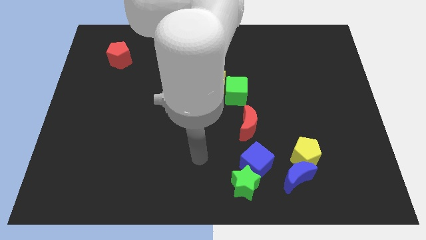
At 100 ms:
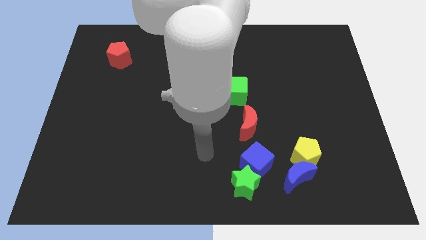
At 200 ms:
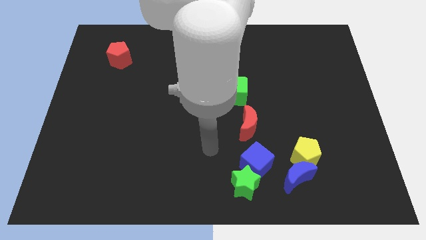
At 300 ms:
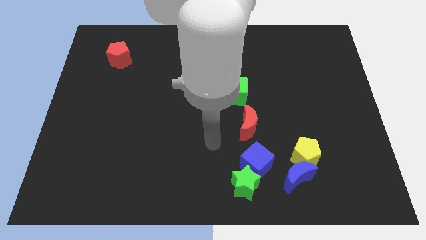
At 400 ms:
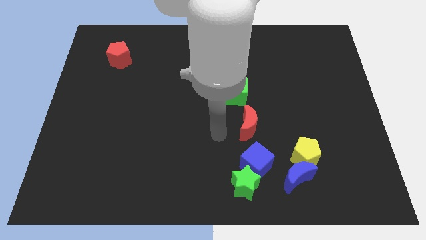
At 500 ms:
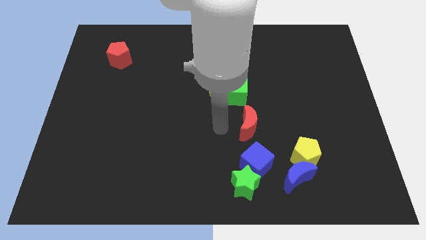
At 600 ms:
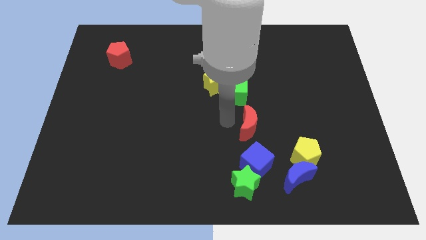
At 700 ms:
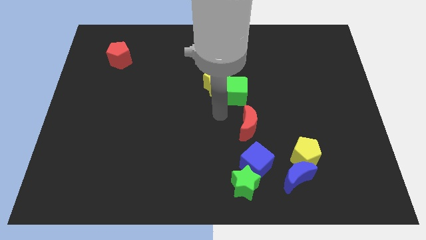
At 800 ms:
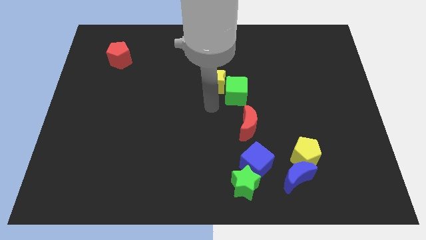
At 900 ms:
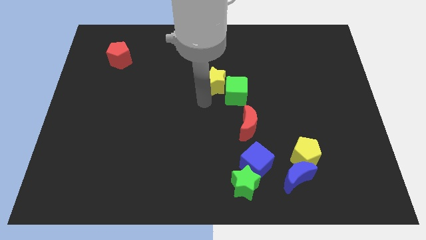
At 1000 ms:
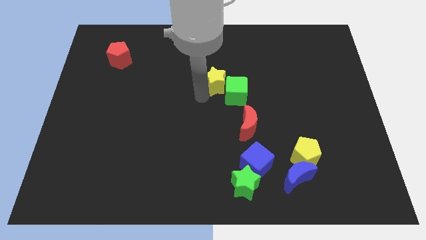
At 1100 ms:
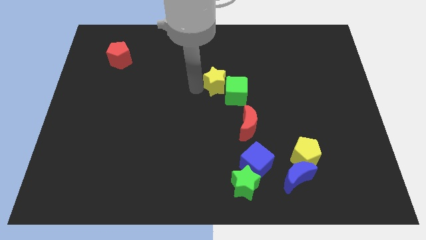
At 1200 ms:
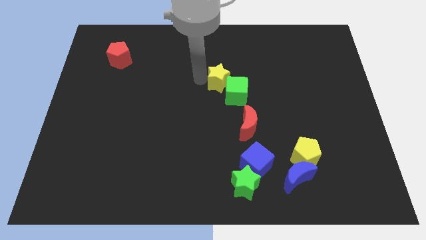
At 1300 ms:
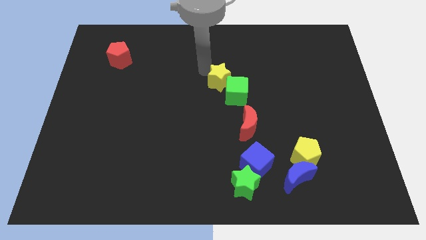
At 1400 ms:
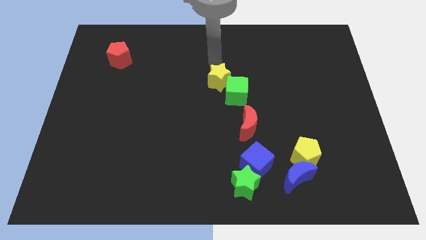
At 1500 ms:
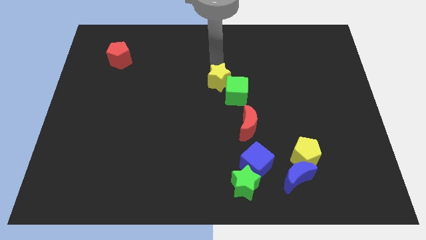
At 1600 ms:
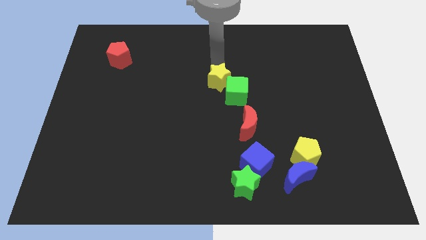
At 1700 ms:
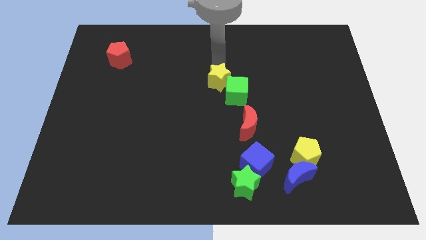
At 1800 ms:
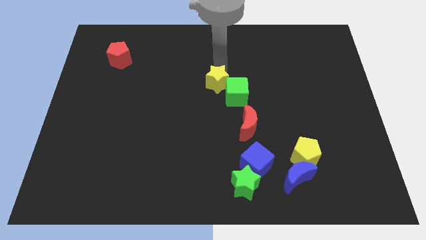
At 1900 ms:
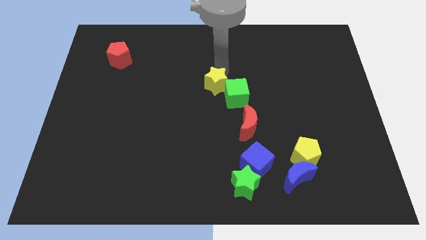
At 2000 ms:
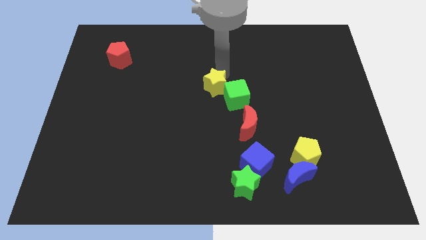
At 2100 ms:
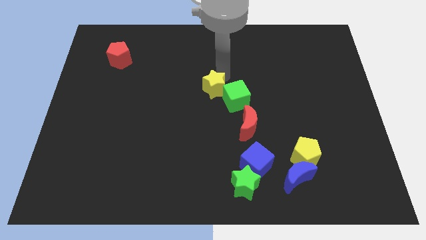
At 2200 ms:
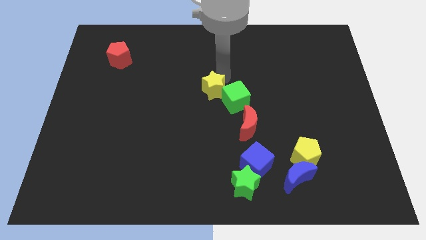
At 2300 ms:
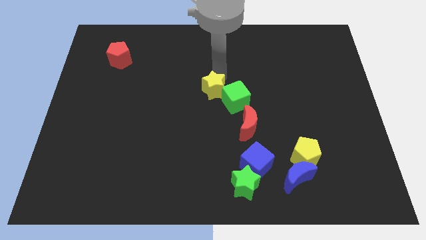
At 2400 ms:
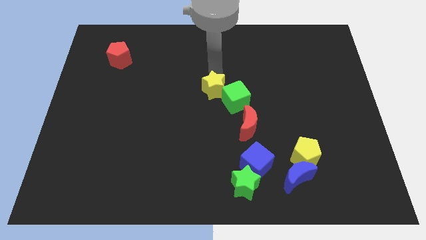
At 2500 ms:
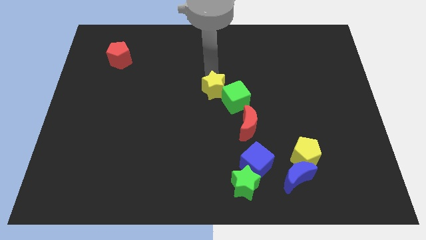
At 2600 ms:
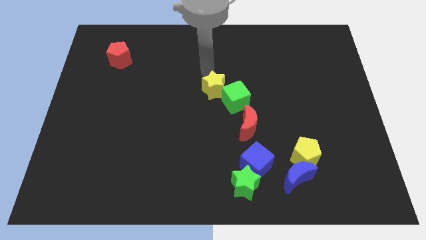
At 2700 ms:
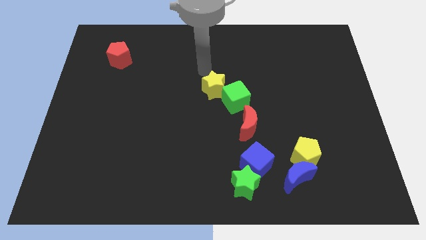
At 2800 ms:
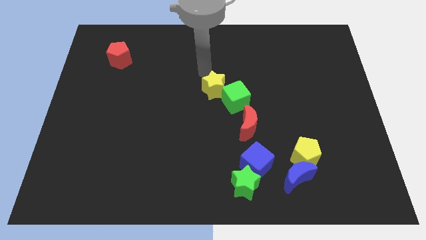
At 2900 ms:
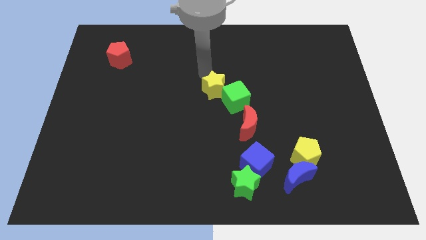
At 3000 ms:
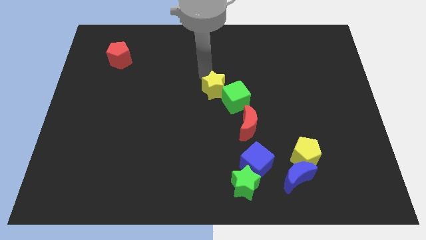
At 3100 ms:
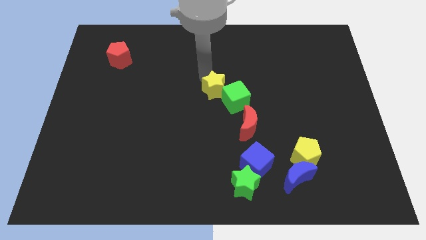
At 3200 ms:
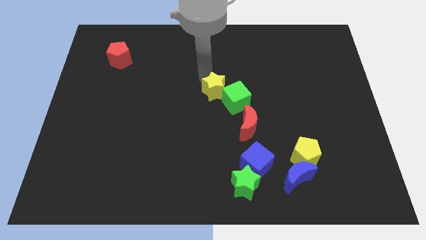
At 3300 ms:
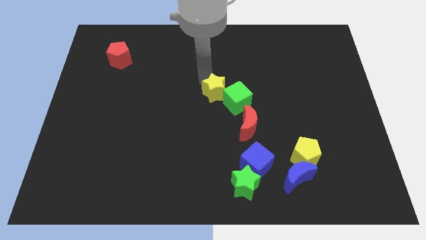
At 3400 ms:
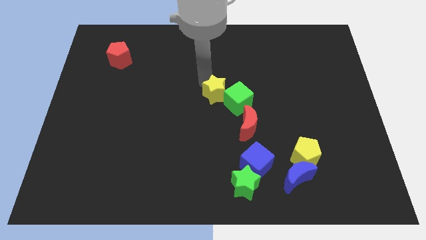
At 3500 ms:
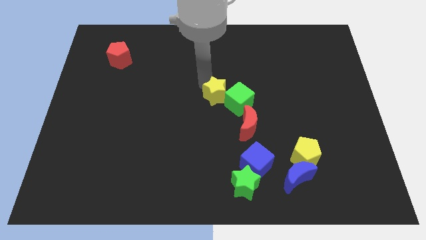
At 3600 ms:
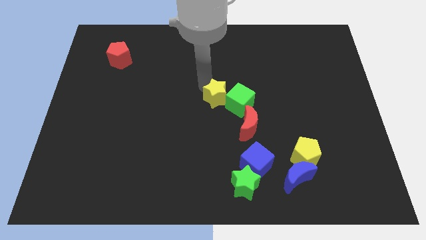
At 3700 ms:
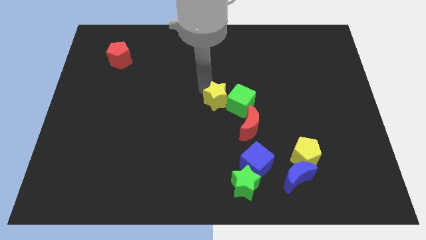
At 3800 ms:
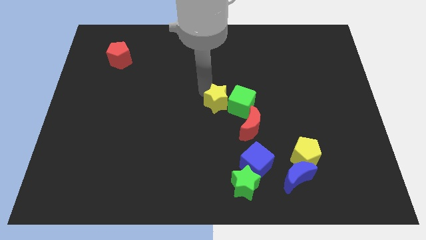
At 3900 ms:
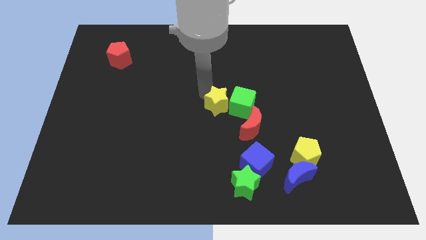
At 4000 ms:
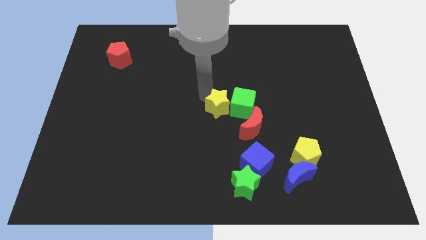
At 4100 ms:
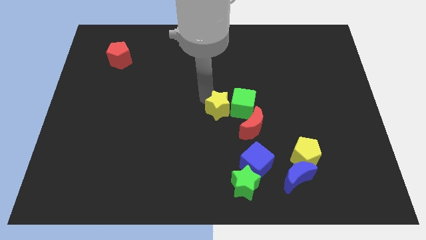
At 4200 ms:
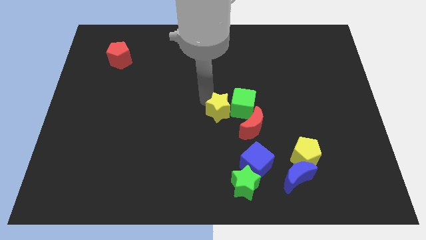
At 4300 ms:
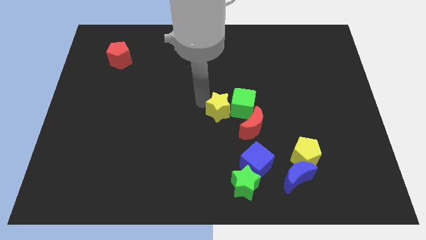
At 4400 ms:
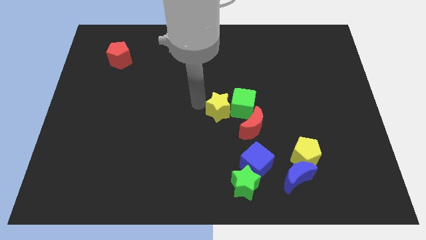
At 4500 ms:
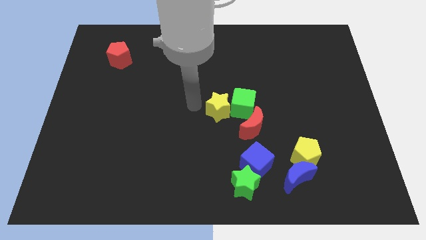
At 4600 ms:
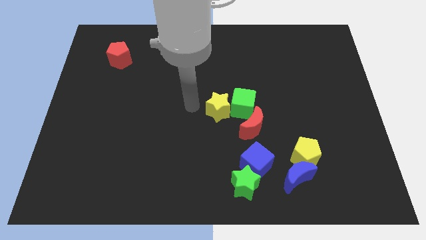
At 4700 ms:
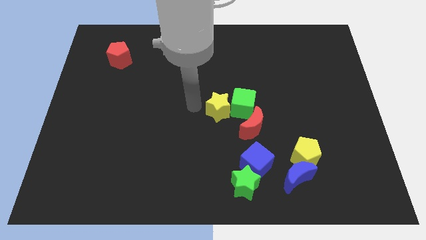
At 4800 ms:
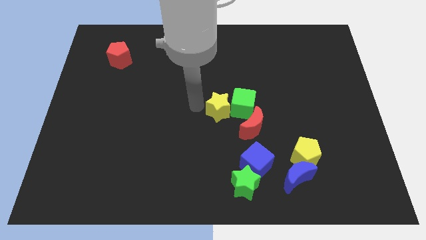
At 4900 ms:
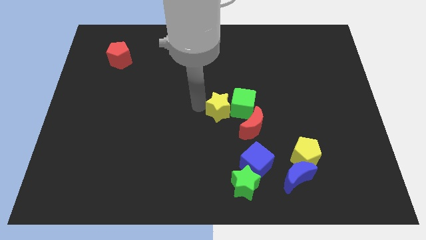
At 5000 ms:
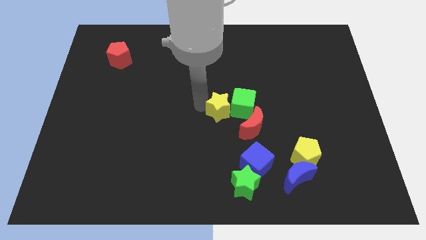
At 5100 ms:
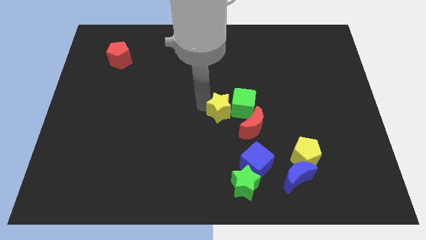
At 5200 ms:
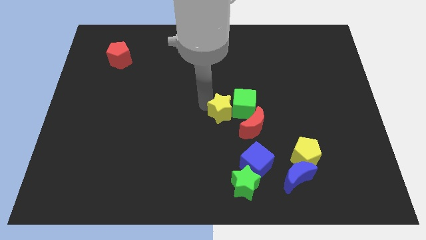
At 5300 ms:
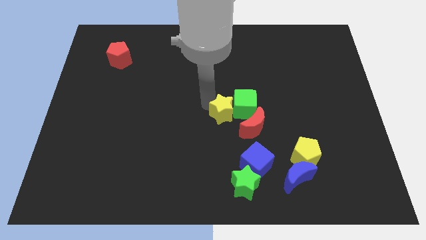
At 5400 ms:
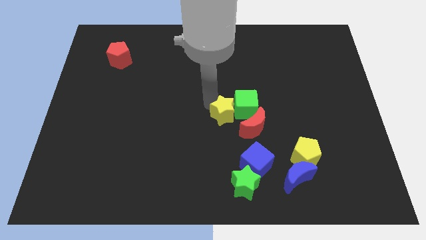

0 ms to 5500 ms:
slightly slide the yellow star diagonally downwards and right

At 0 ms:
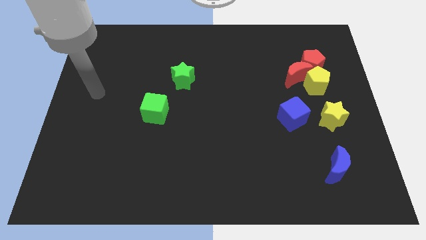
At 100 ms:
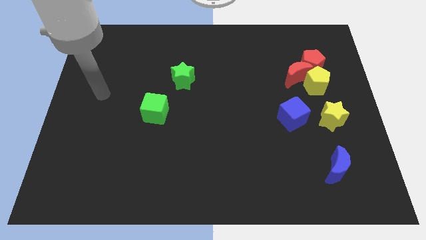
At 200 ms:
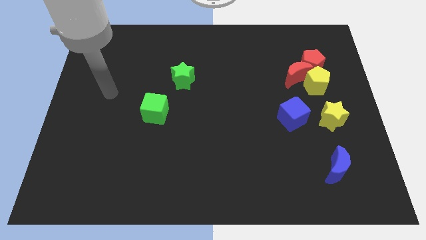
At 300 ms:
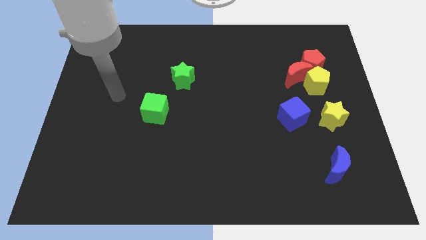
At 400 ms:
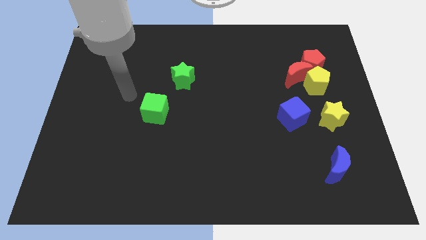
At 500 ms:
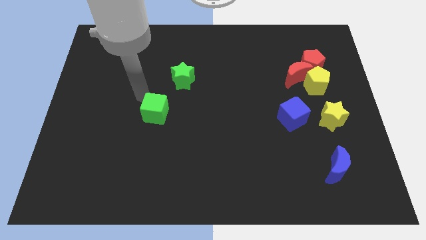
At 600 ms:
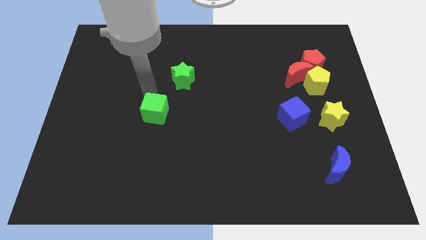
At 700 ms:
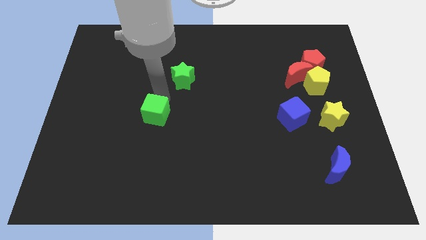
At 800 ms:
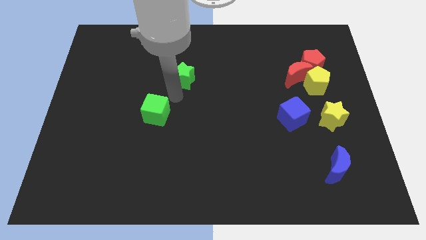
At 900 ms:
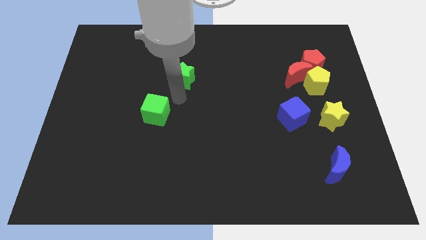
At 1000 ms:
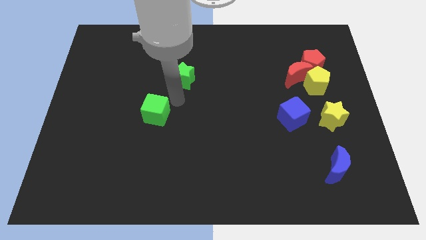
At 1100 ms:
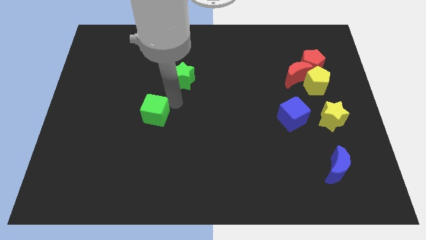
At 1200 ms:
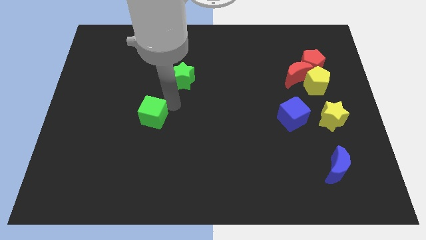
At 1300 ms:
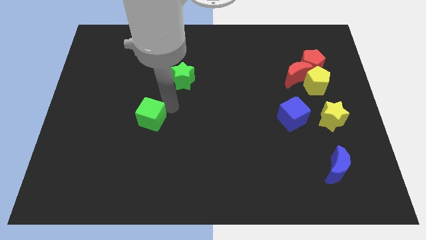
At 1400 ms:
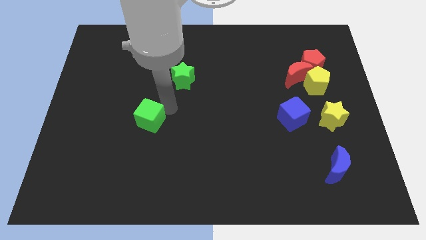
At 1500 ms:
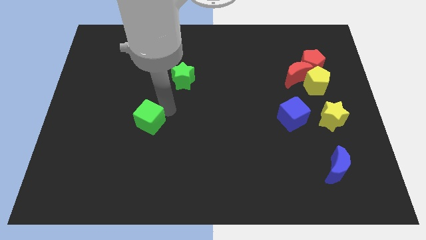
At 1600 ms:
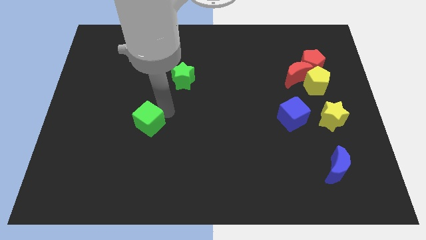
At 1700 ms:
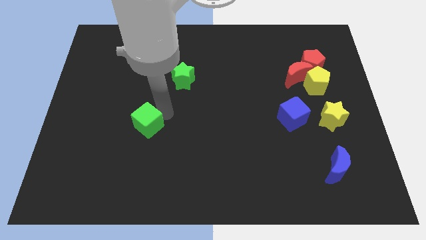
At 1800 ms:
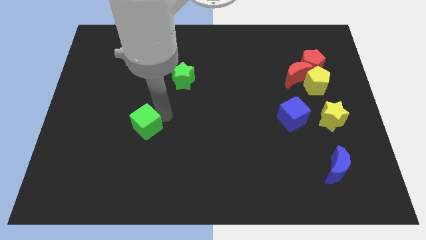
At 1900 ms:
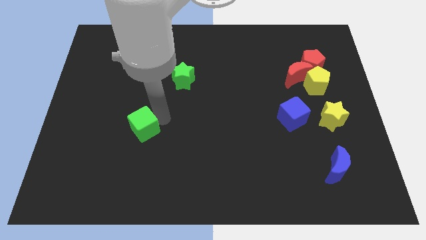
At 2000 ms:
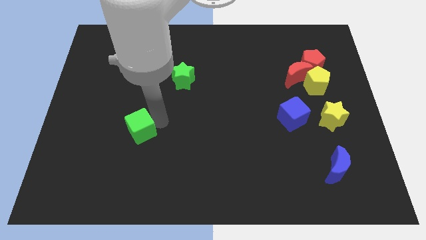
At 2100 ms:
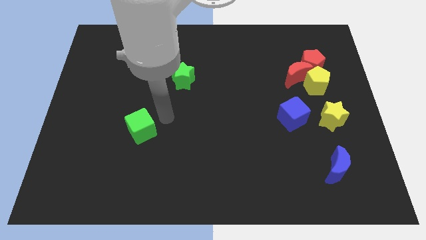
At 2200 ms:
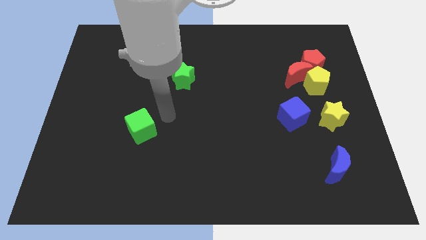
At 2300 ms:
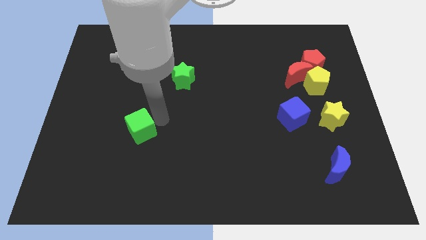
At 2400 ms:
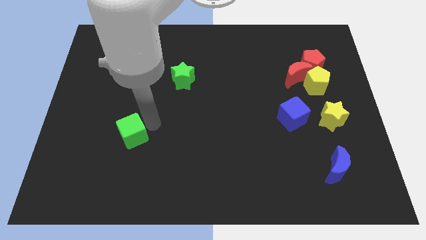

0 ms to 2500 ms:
push the green cube a little down and left diagonally

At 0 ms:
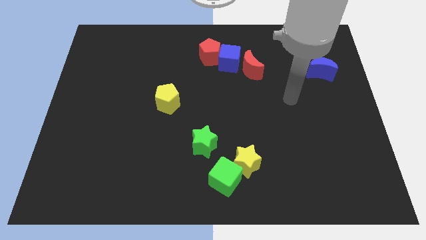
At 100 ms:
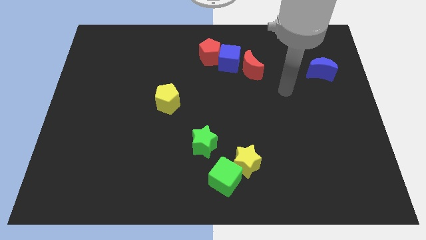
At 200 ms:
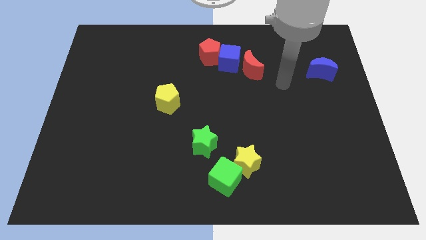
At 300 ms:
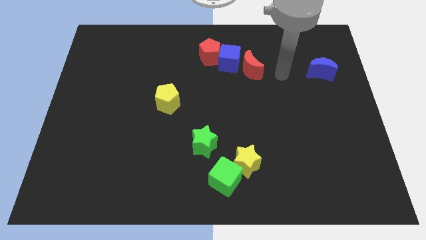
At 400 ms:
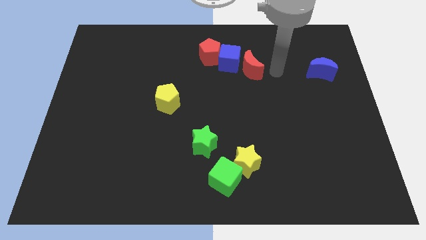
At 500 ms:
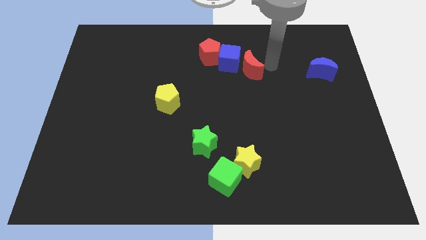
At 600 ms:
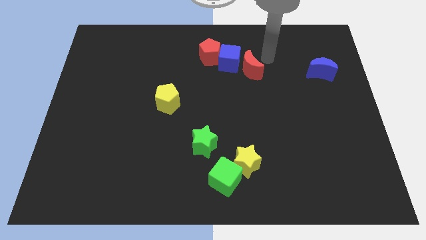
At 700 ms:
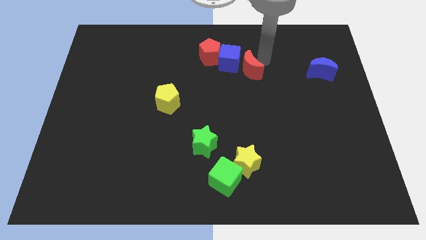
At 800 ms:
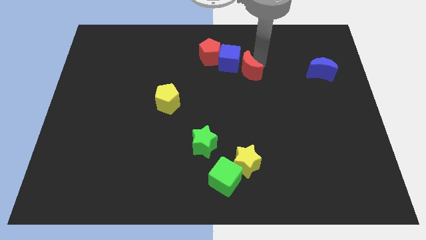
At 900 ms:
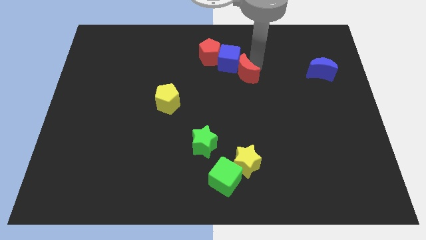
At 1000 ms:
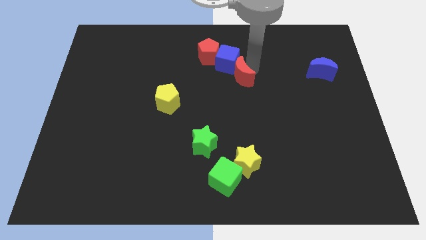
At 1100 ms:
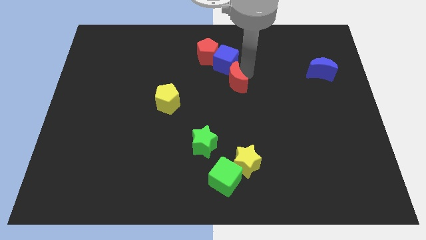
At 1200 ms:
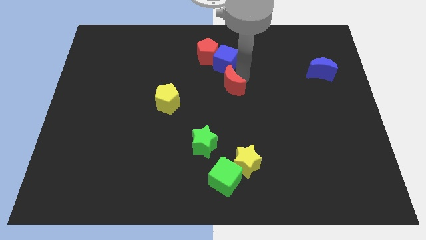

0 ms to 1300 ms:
move the red moon slightly downwards and then to the left
